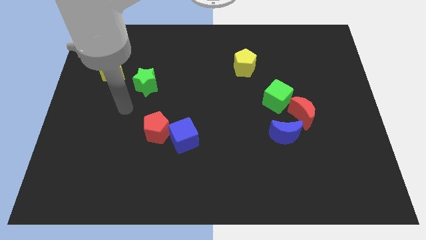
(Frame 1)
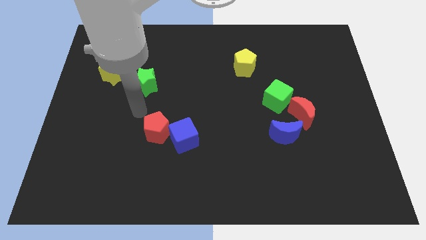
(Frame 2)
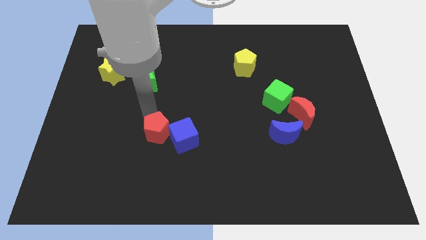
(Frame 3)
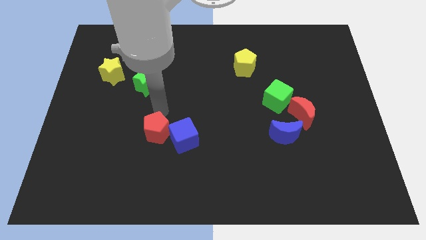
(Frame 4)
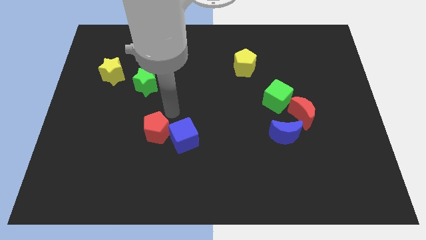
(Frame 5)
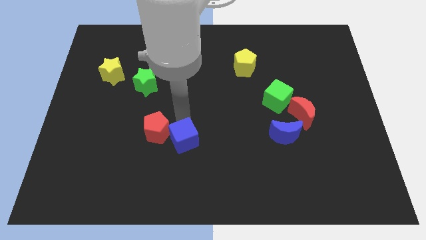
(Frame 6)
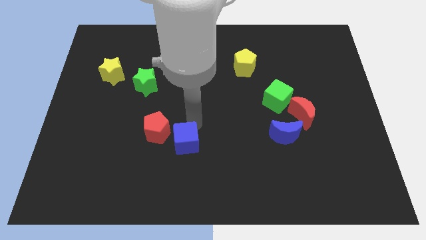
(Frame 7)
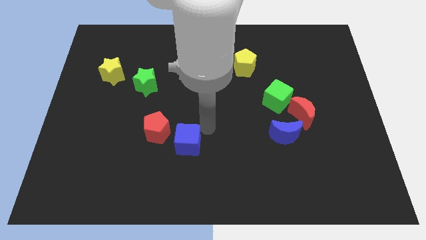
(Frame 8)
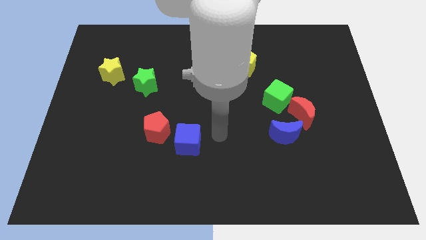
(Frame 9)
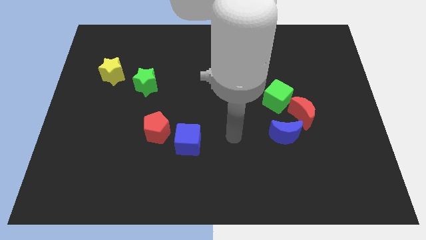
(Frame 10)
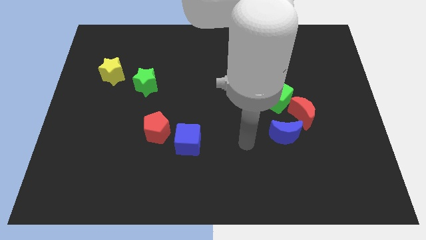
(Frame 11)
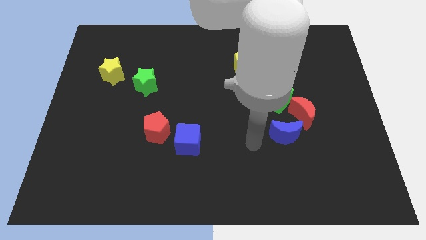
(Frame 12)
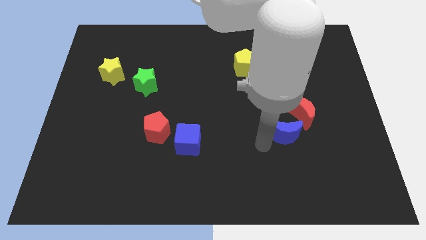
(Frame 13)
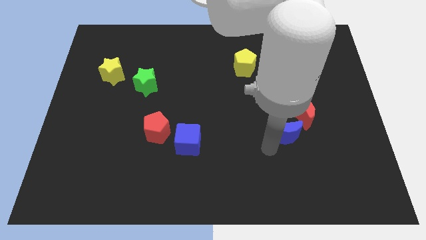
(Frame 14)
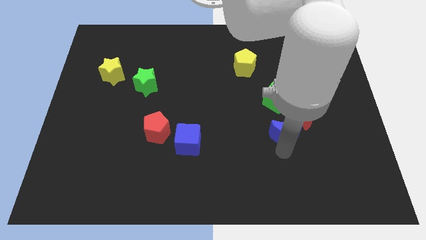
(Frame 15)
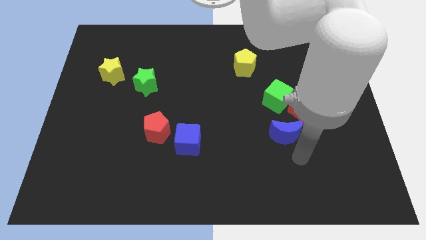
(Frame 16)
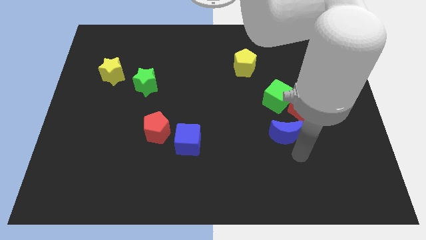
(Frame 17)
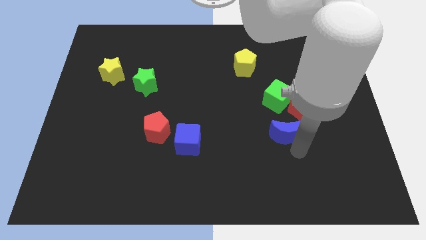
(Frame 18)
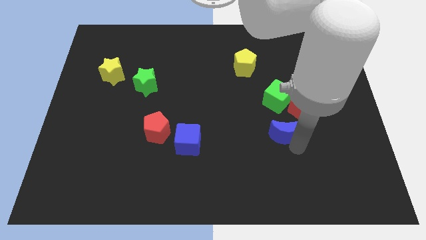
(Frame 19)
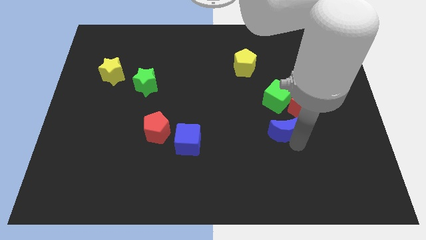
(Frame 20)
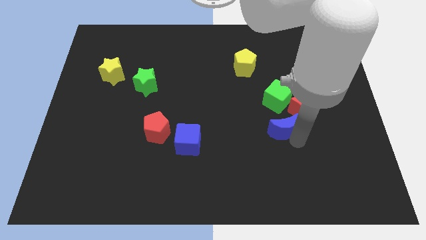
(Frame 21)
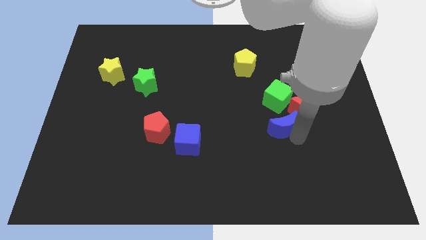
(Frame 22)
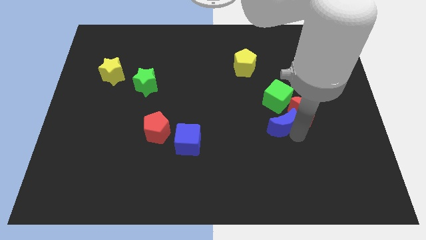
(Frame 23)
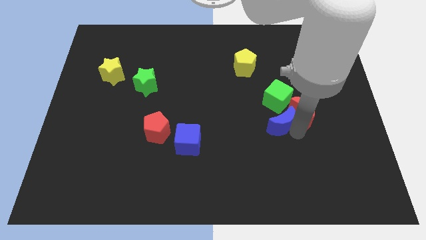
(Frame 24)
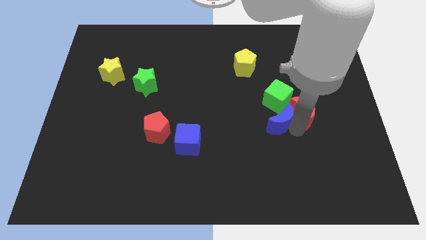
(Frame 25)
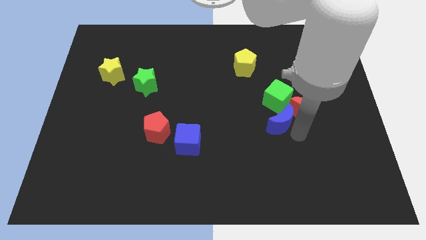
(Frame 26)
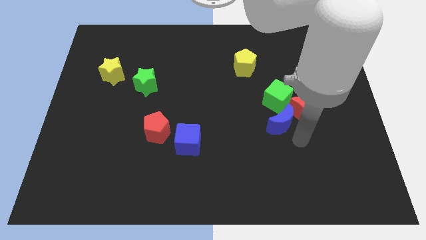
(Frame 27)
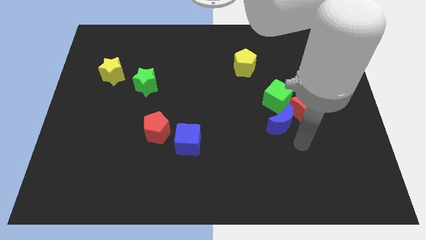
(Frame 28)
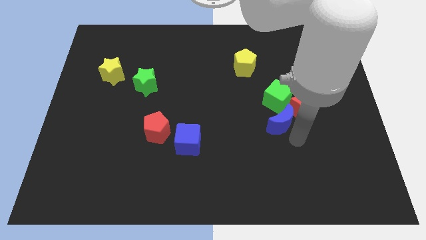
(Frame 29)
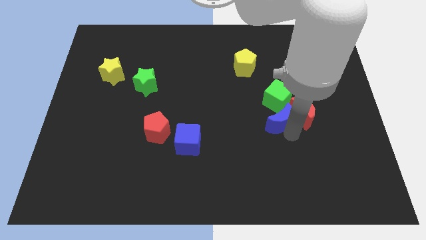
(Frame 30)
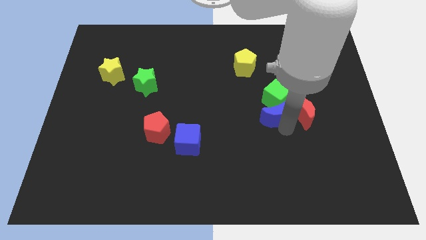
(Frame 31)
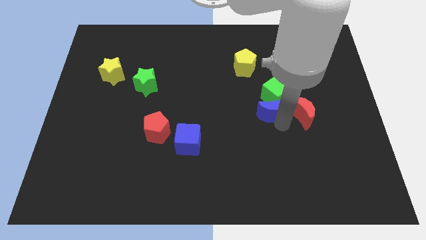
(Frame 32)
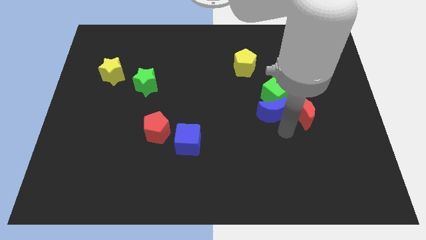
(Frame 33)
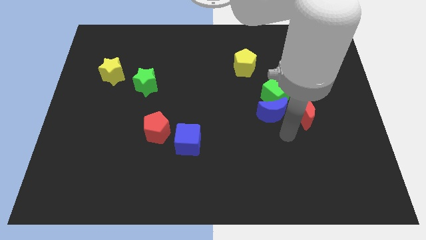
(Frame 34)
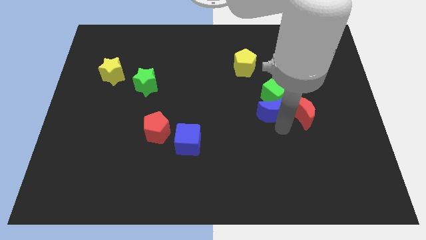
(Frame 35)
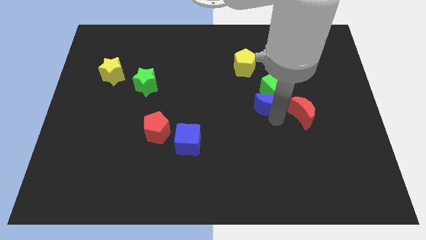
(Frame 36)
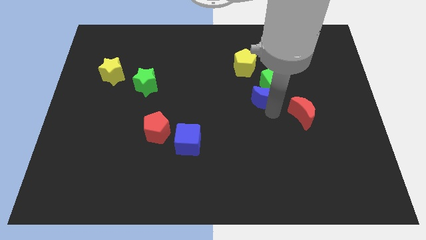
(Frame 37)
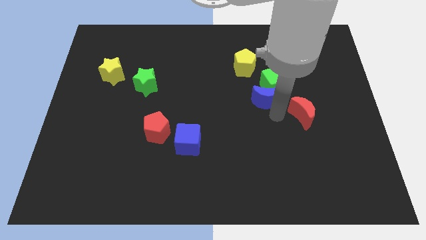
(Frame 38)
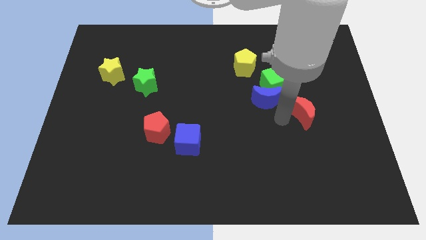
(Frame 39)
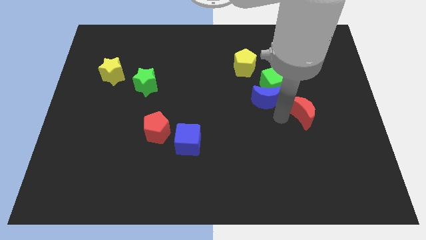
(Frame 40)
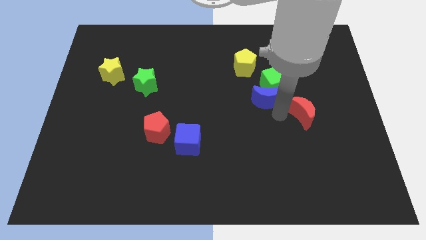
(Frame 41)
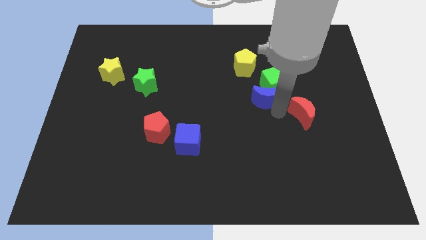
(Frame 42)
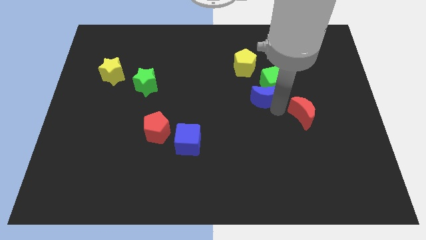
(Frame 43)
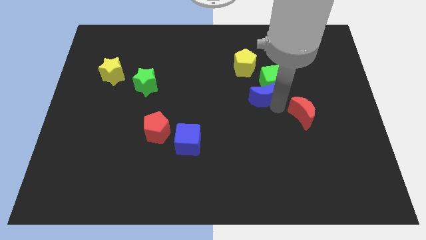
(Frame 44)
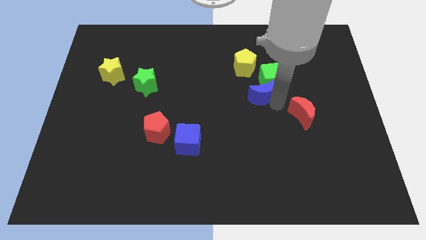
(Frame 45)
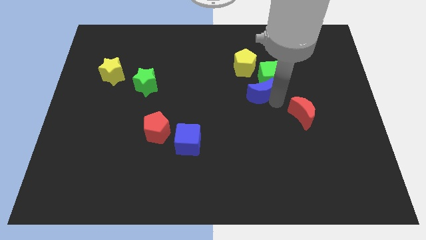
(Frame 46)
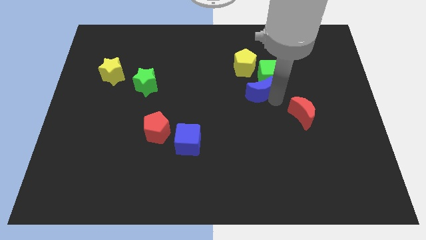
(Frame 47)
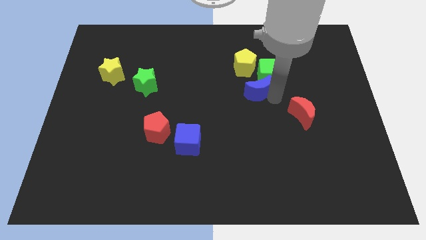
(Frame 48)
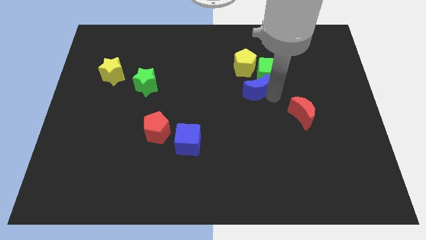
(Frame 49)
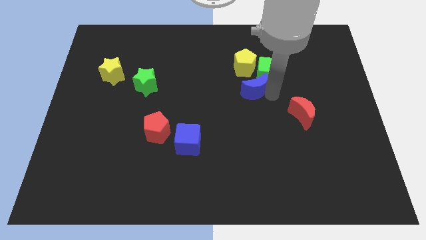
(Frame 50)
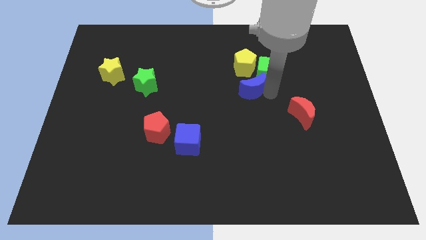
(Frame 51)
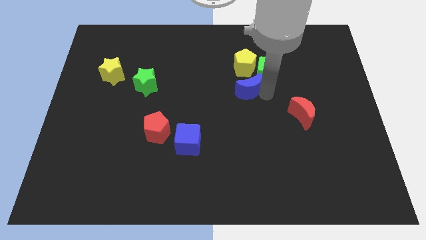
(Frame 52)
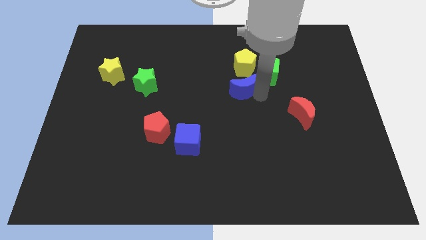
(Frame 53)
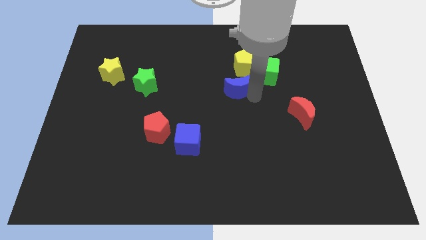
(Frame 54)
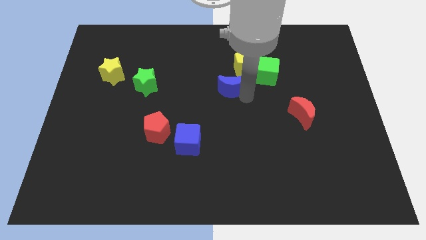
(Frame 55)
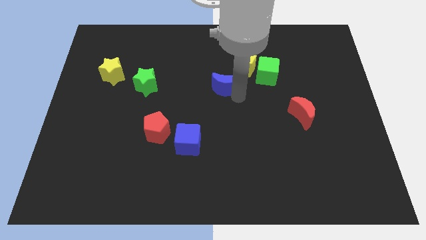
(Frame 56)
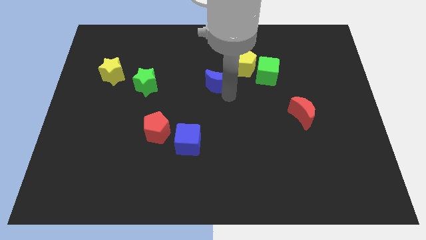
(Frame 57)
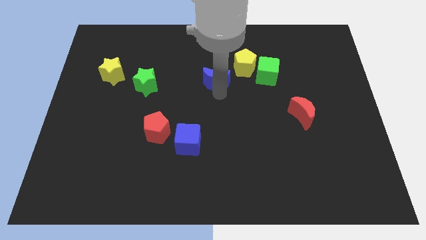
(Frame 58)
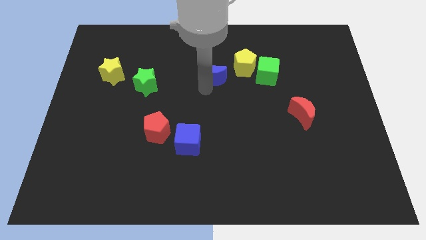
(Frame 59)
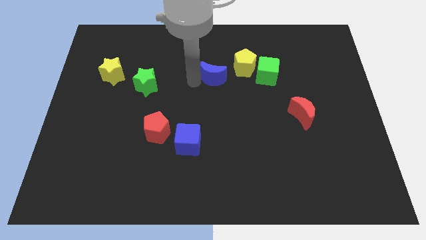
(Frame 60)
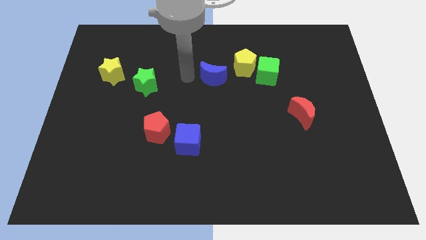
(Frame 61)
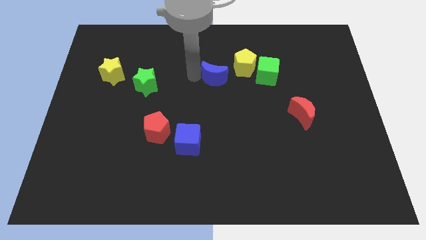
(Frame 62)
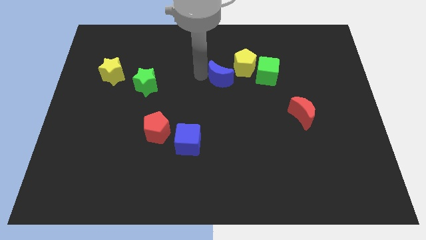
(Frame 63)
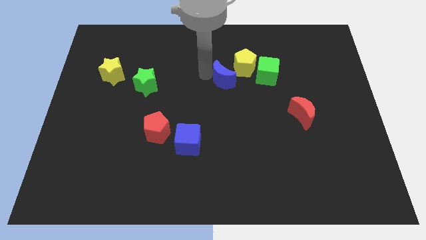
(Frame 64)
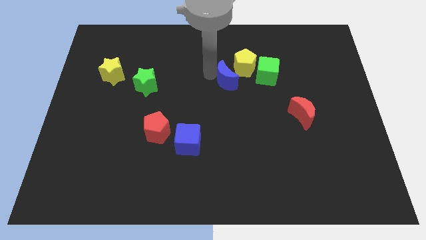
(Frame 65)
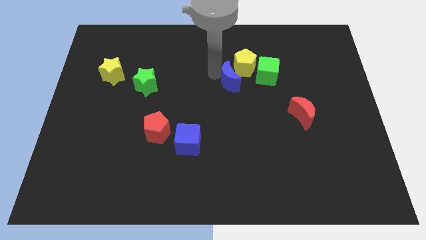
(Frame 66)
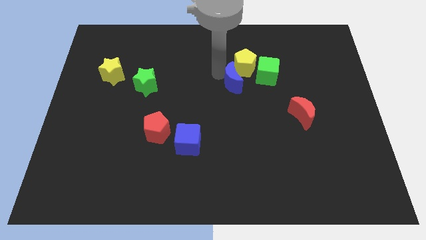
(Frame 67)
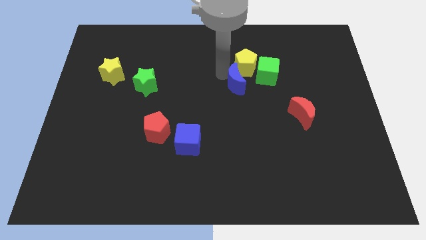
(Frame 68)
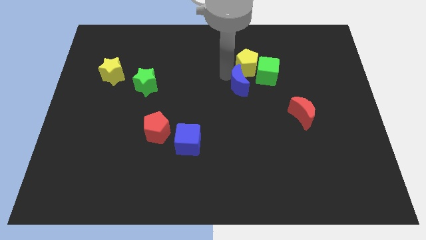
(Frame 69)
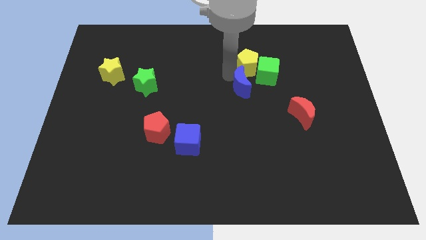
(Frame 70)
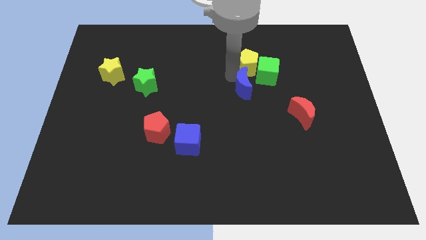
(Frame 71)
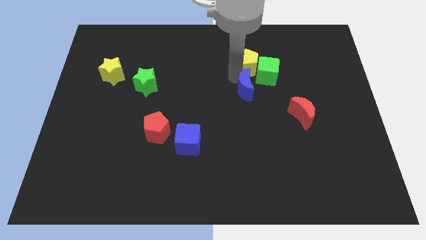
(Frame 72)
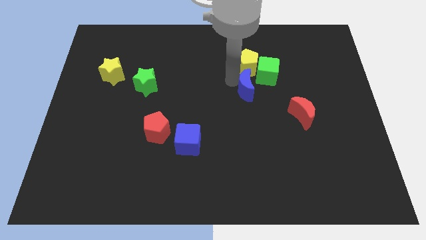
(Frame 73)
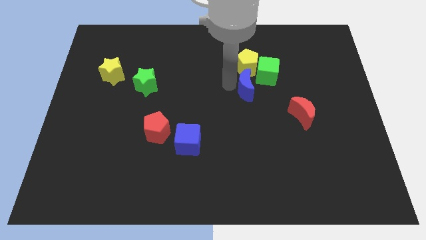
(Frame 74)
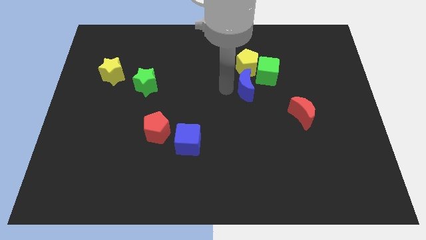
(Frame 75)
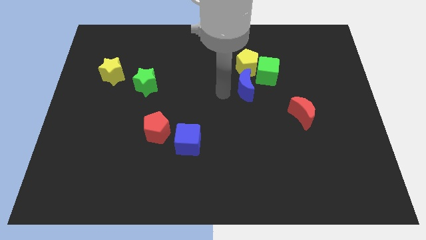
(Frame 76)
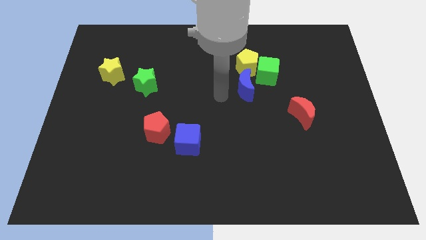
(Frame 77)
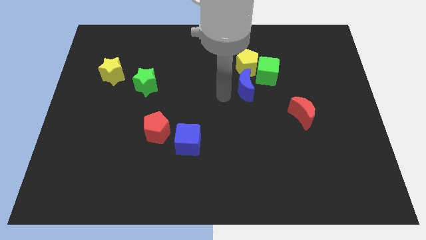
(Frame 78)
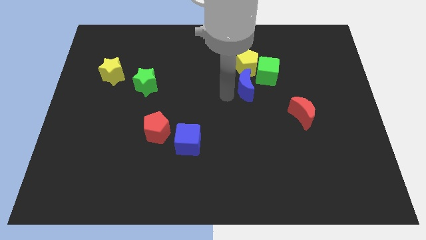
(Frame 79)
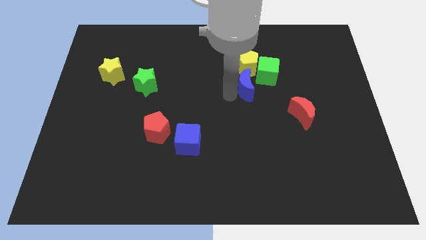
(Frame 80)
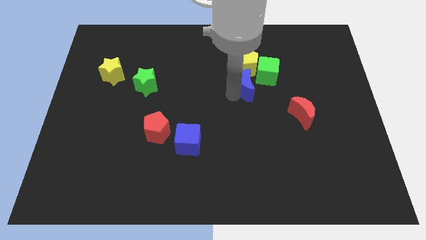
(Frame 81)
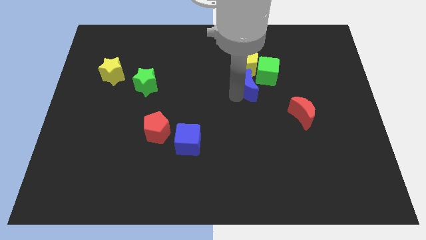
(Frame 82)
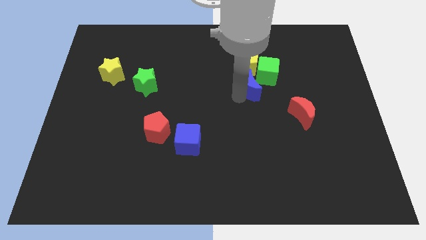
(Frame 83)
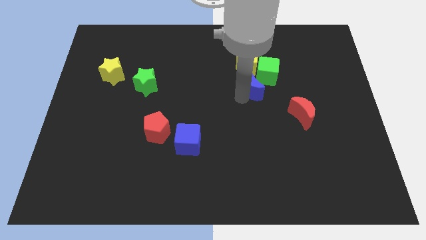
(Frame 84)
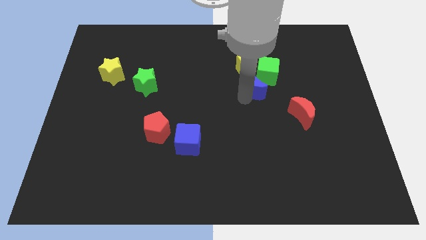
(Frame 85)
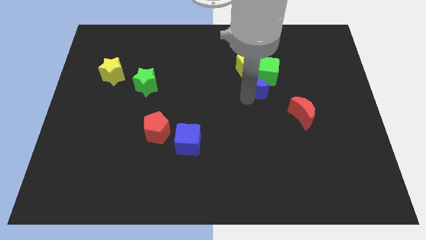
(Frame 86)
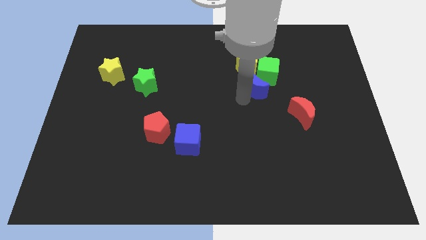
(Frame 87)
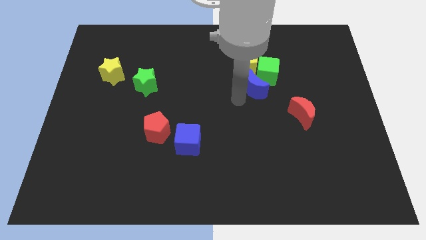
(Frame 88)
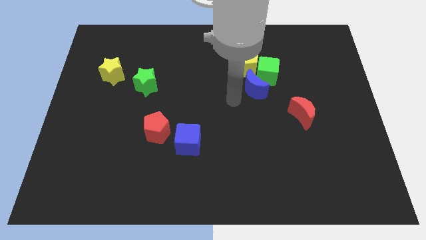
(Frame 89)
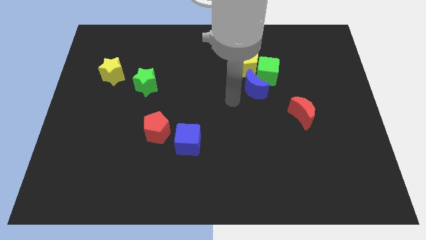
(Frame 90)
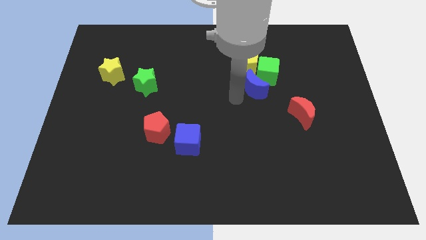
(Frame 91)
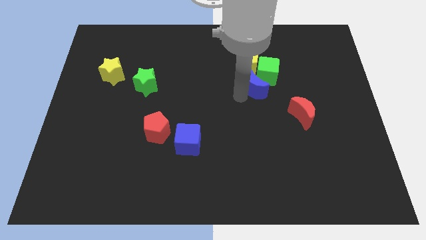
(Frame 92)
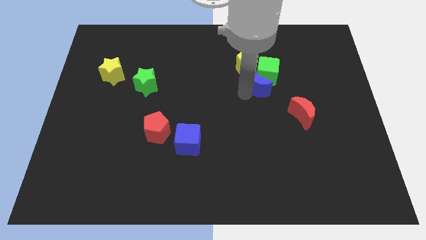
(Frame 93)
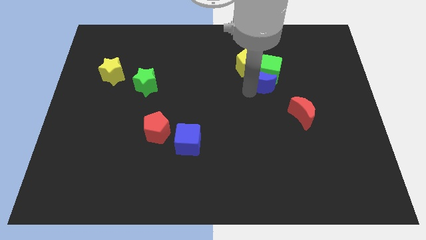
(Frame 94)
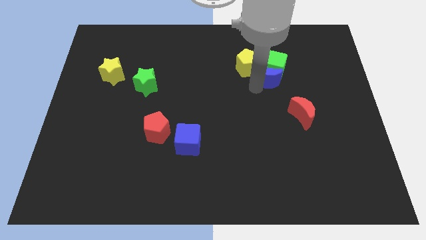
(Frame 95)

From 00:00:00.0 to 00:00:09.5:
slide the blue moon to the right side of the yellow pentagon
